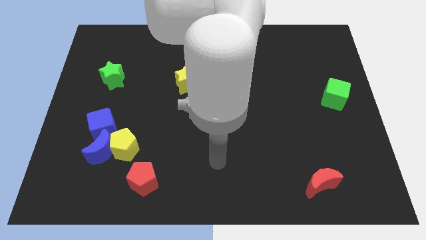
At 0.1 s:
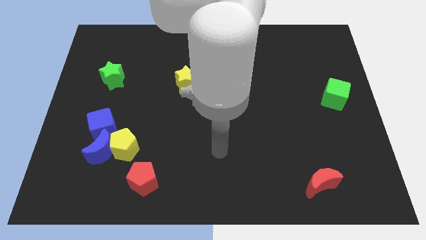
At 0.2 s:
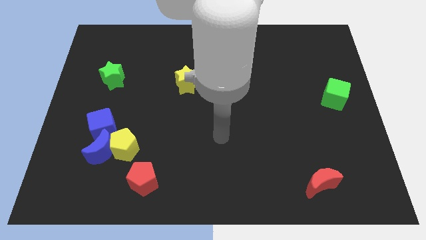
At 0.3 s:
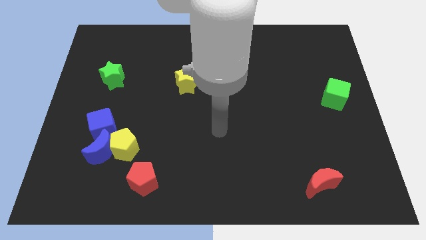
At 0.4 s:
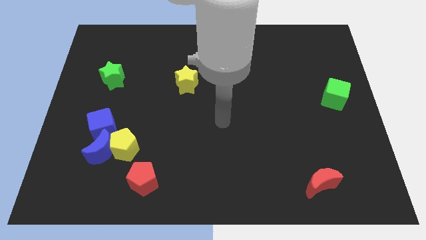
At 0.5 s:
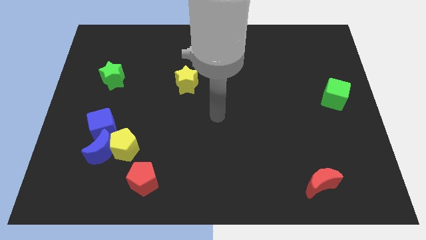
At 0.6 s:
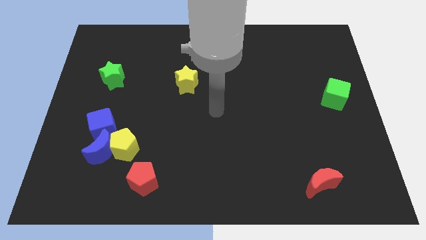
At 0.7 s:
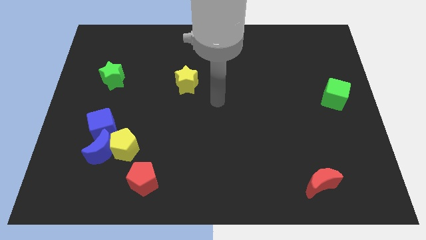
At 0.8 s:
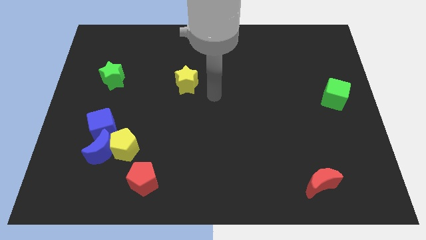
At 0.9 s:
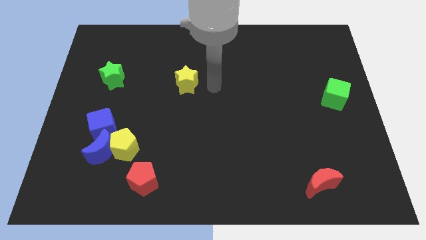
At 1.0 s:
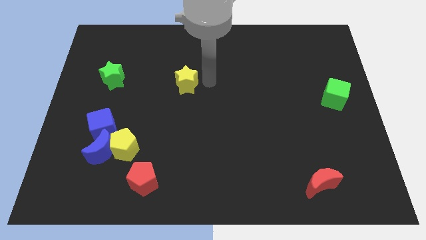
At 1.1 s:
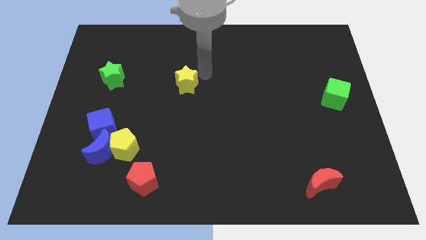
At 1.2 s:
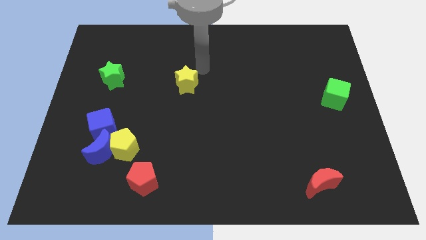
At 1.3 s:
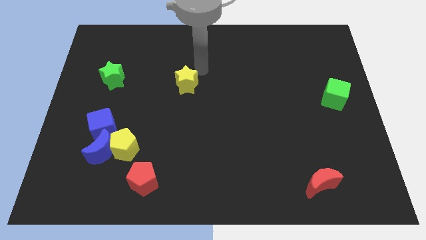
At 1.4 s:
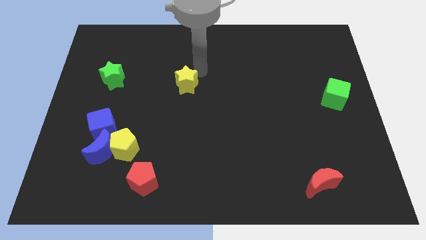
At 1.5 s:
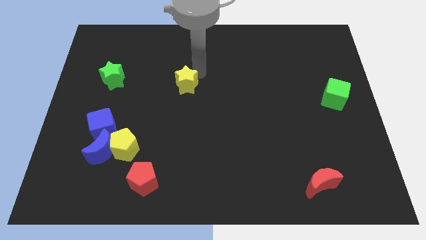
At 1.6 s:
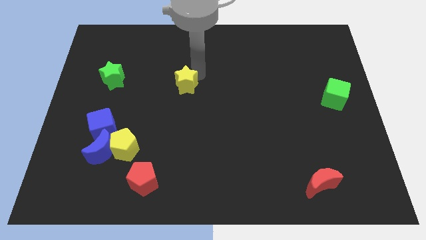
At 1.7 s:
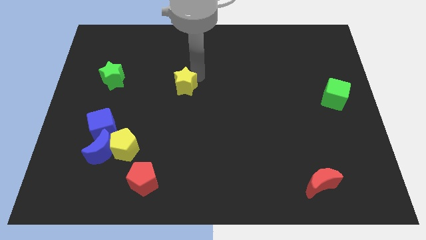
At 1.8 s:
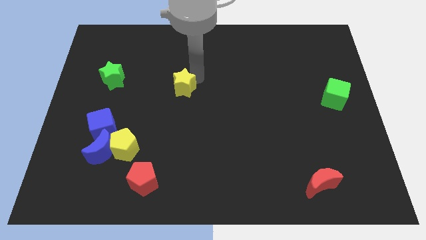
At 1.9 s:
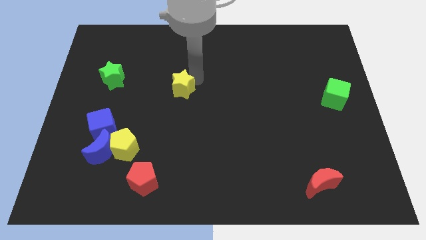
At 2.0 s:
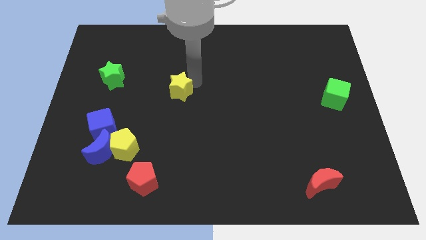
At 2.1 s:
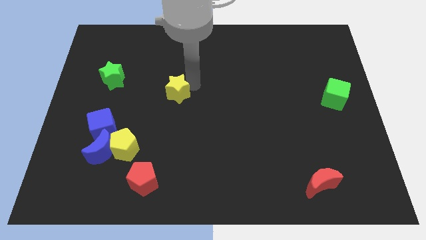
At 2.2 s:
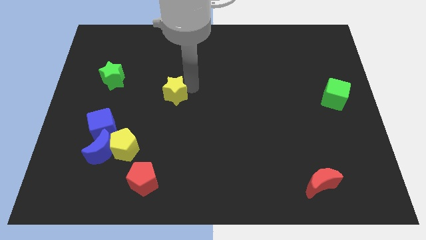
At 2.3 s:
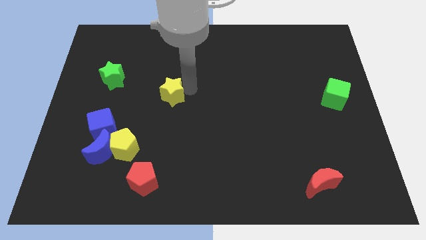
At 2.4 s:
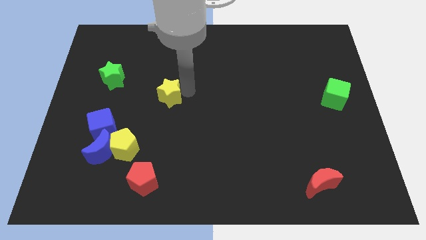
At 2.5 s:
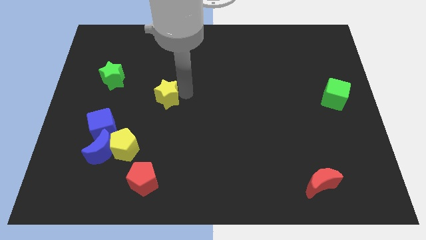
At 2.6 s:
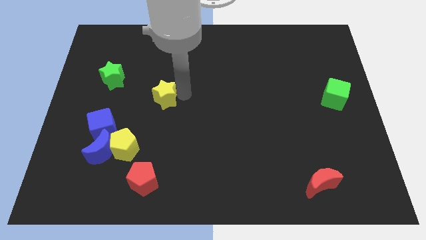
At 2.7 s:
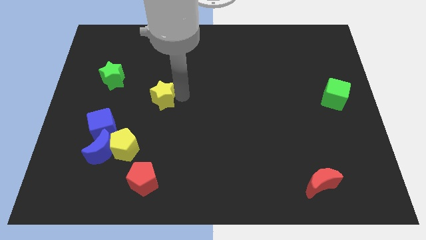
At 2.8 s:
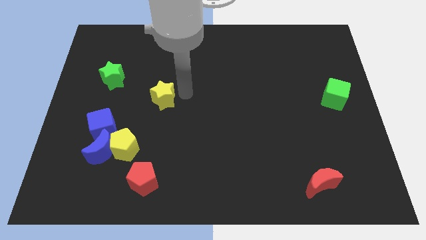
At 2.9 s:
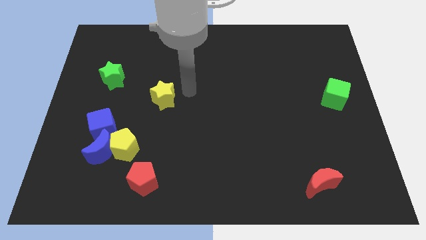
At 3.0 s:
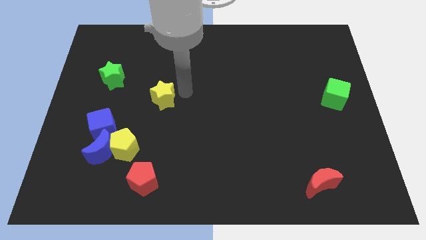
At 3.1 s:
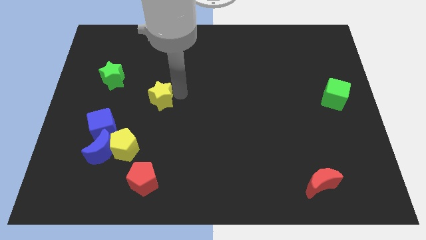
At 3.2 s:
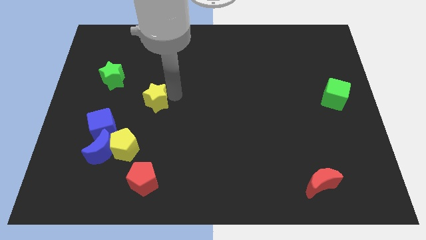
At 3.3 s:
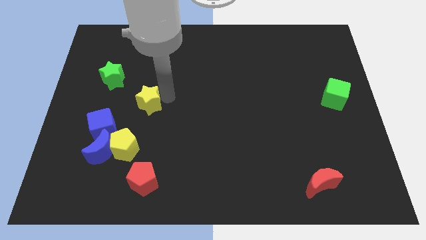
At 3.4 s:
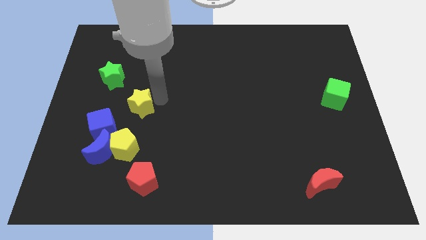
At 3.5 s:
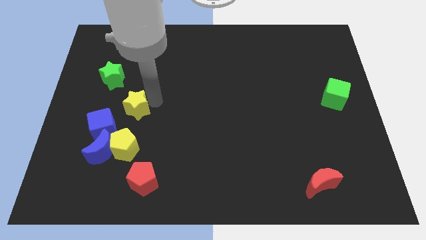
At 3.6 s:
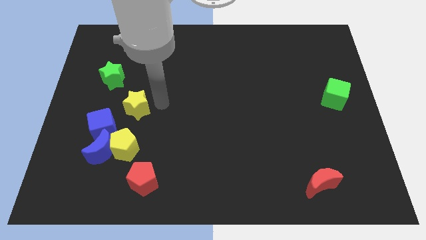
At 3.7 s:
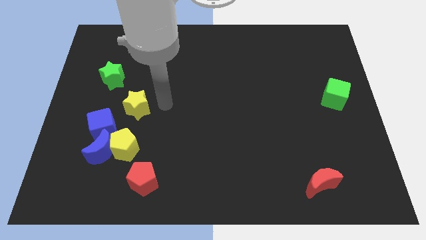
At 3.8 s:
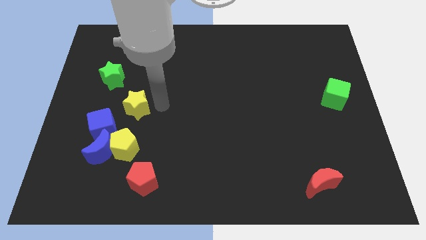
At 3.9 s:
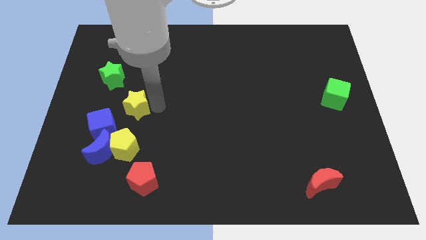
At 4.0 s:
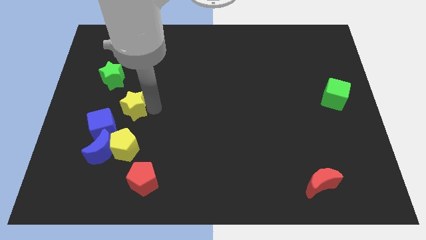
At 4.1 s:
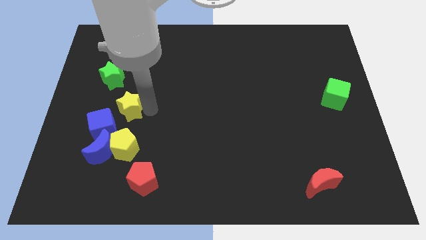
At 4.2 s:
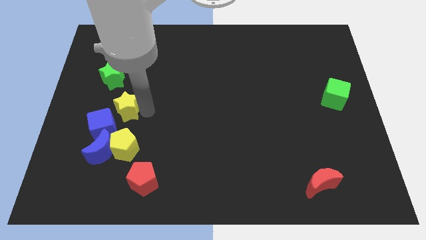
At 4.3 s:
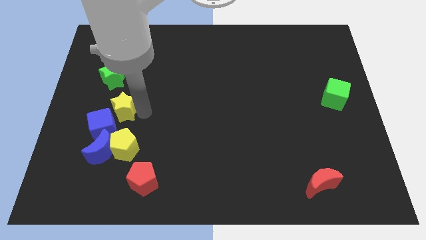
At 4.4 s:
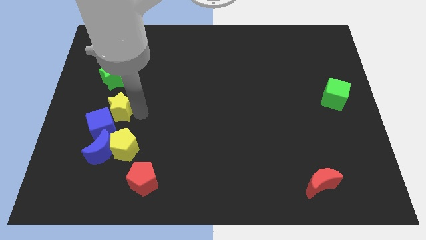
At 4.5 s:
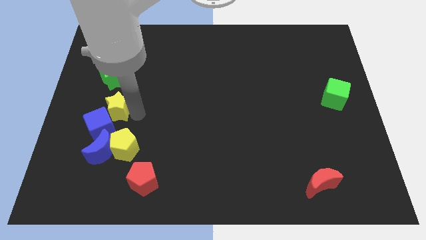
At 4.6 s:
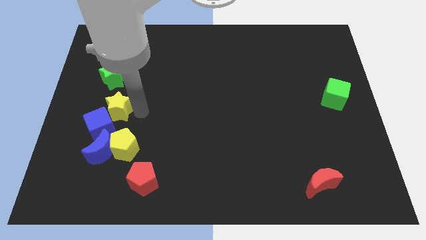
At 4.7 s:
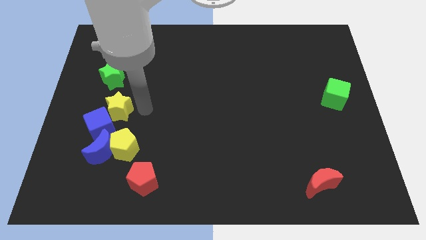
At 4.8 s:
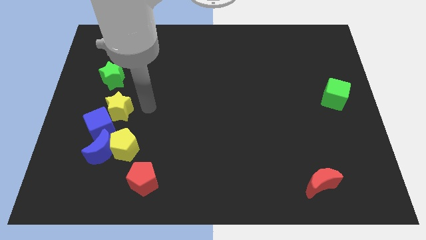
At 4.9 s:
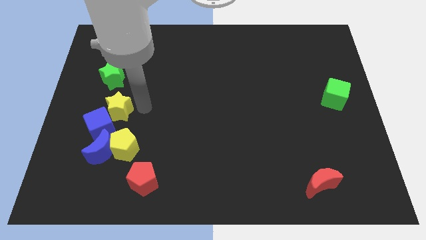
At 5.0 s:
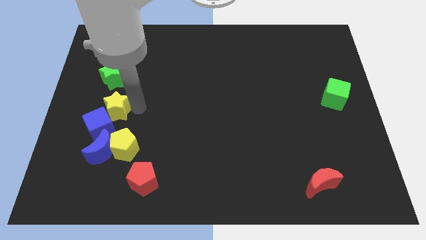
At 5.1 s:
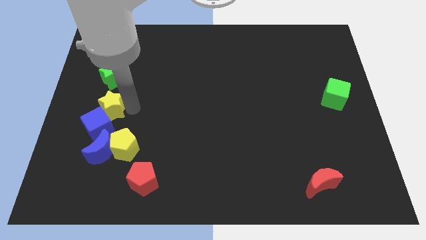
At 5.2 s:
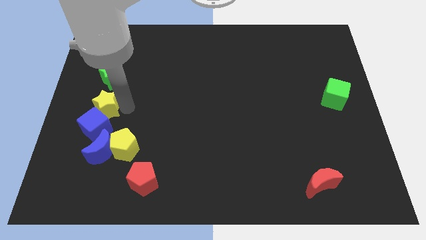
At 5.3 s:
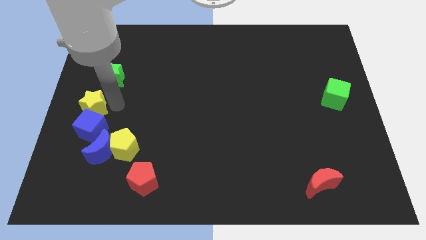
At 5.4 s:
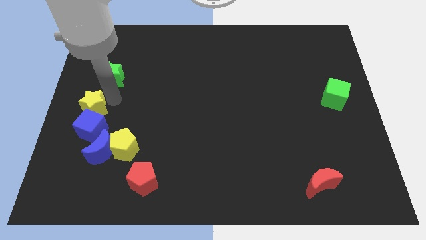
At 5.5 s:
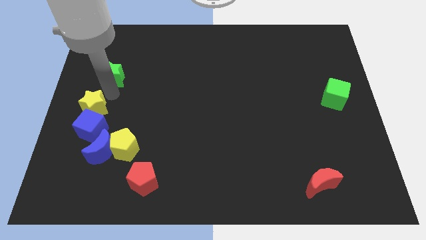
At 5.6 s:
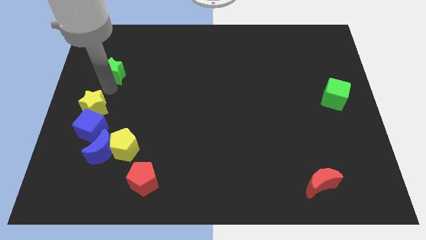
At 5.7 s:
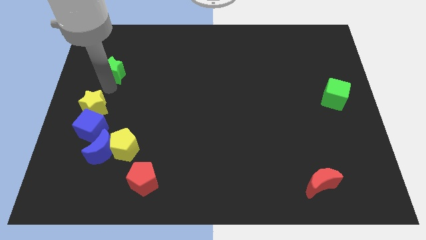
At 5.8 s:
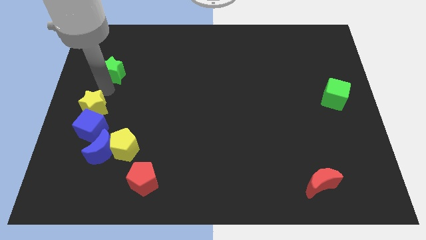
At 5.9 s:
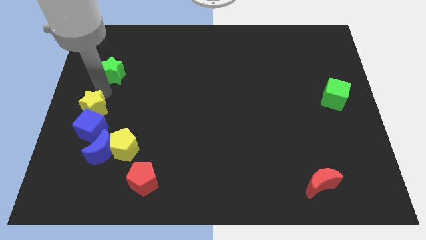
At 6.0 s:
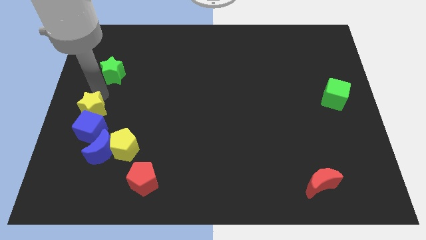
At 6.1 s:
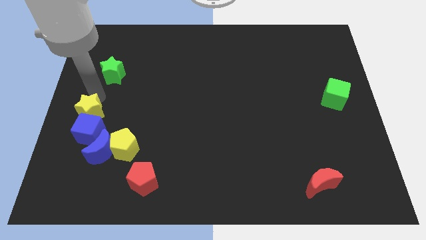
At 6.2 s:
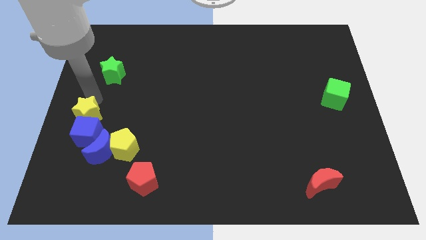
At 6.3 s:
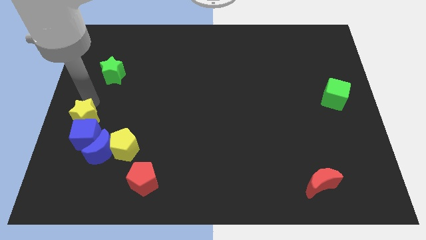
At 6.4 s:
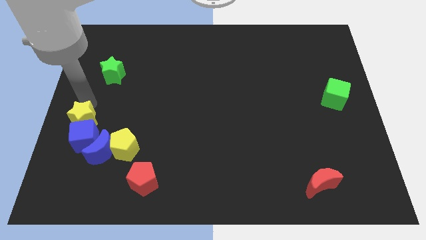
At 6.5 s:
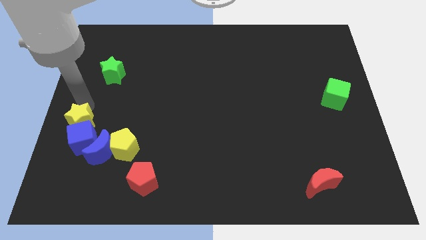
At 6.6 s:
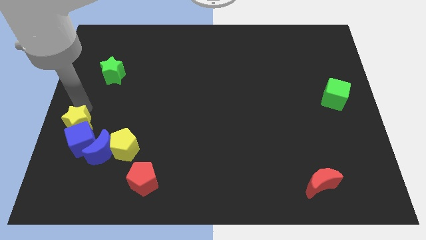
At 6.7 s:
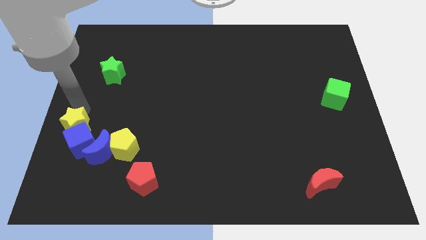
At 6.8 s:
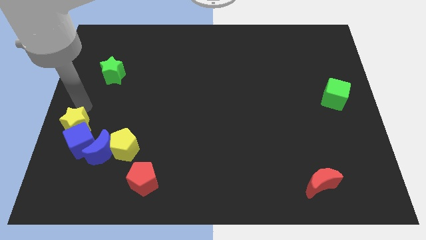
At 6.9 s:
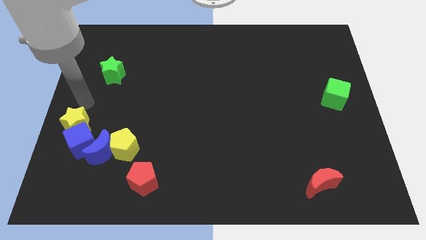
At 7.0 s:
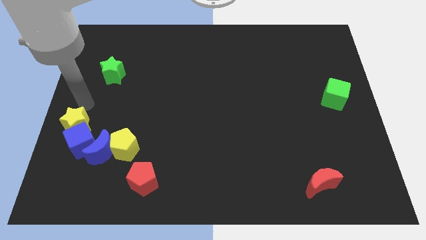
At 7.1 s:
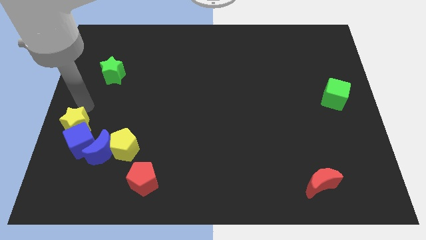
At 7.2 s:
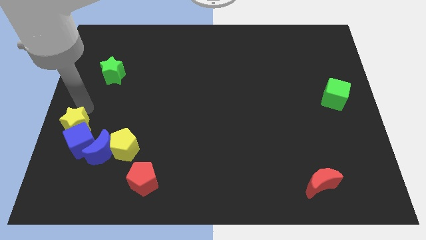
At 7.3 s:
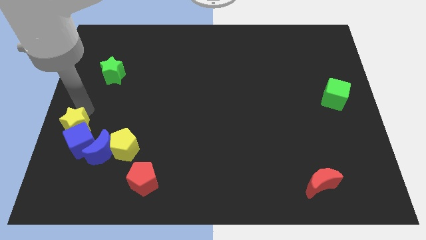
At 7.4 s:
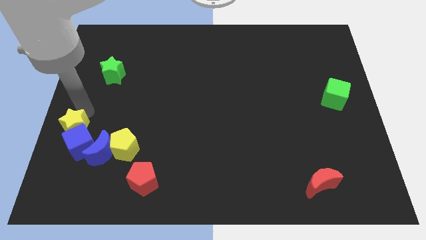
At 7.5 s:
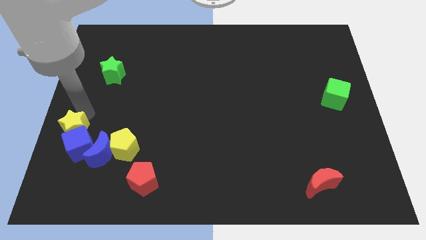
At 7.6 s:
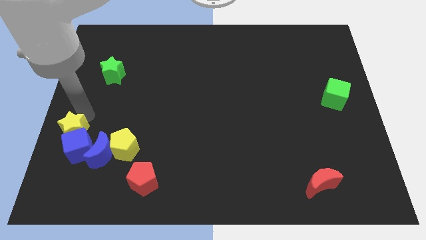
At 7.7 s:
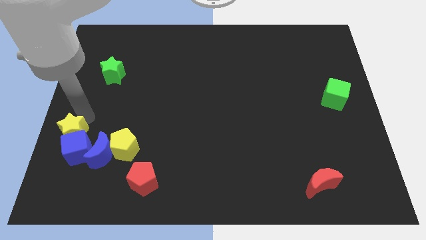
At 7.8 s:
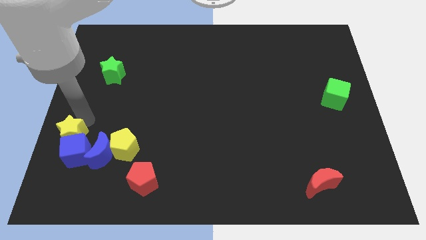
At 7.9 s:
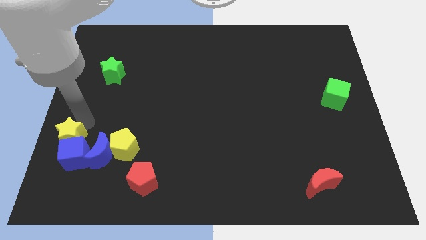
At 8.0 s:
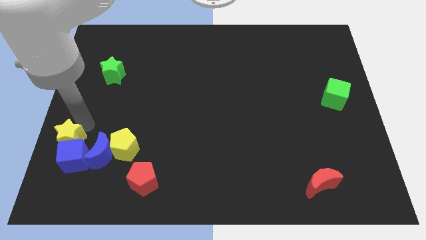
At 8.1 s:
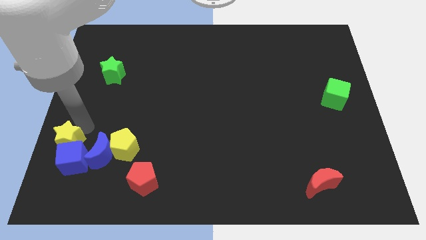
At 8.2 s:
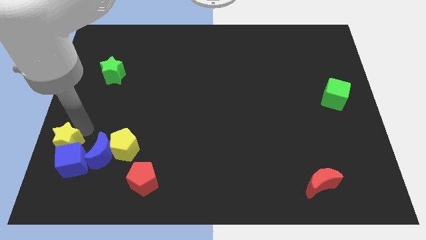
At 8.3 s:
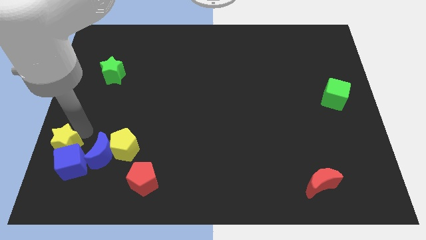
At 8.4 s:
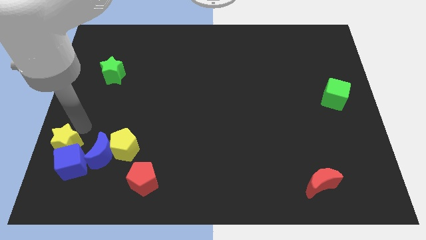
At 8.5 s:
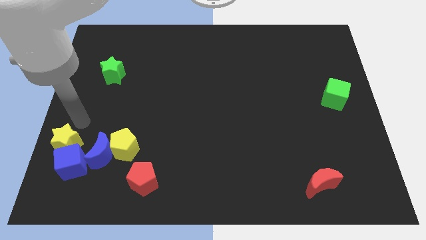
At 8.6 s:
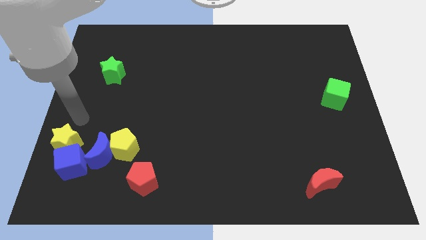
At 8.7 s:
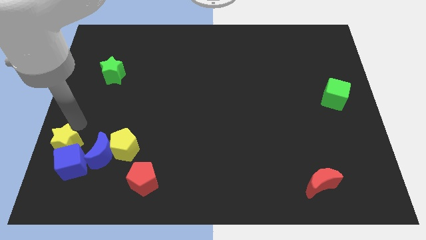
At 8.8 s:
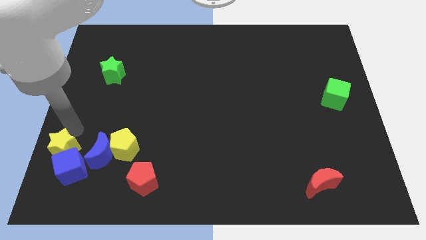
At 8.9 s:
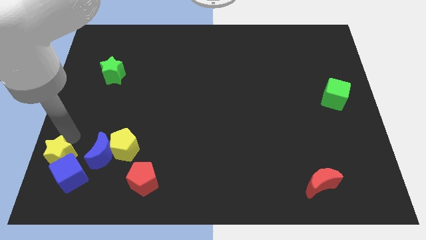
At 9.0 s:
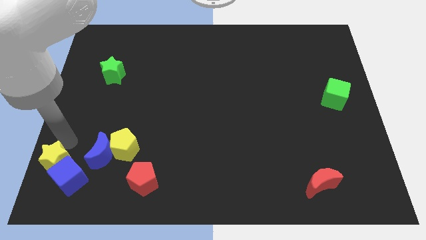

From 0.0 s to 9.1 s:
put the yellow star to the bottom left corner
